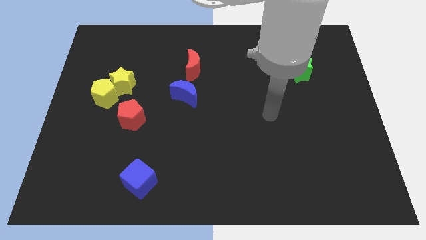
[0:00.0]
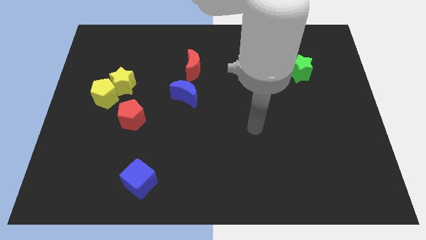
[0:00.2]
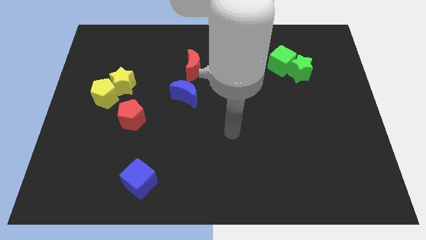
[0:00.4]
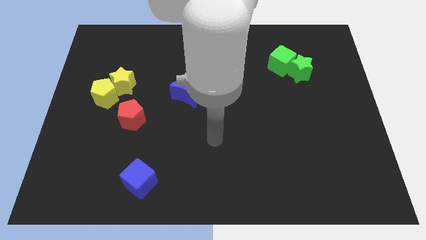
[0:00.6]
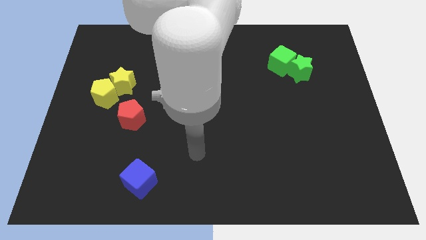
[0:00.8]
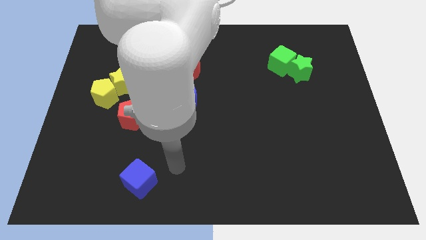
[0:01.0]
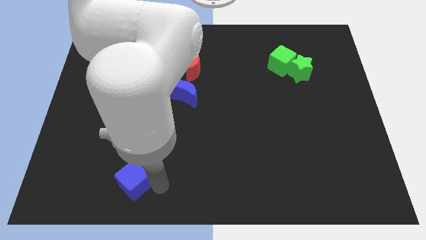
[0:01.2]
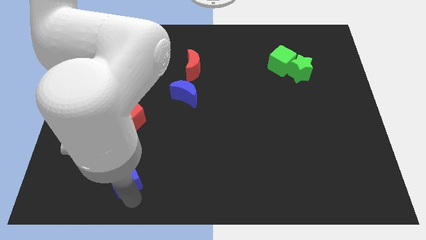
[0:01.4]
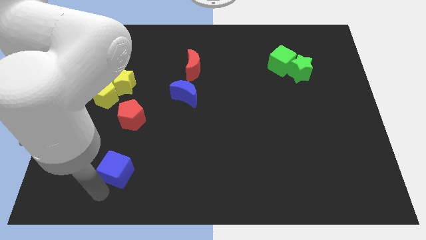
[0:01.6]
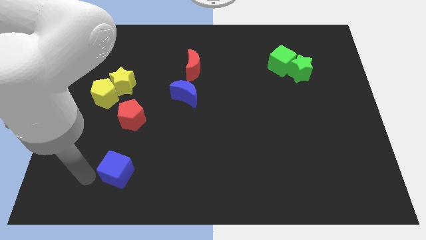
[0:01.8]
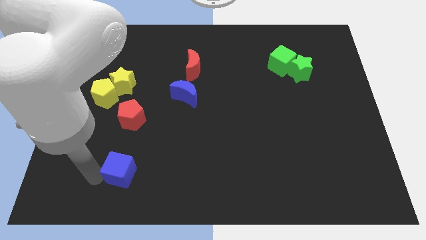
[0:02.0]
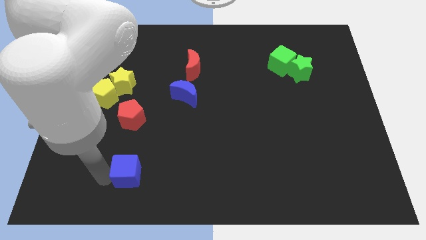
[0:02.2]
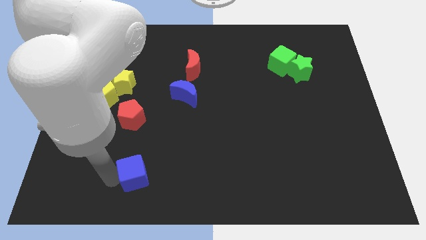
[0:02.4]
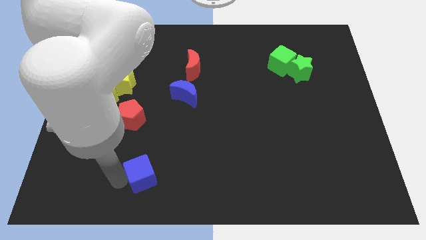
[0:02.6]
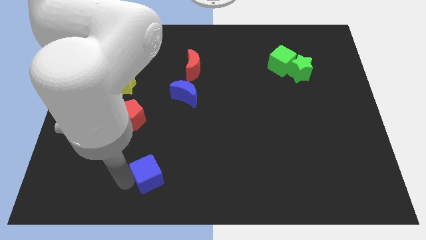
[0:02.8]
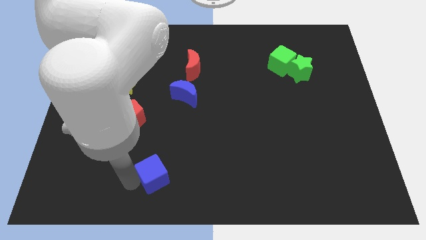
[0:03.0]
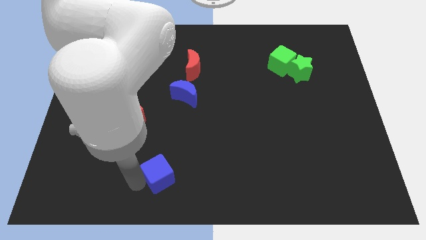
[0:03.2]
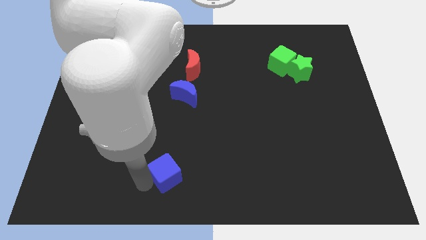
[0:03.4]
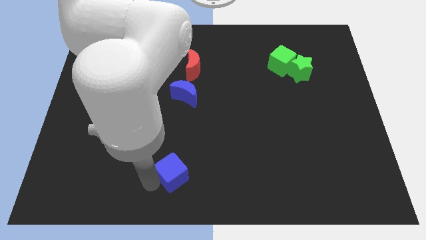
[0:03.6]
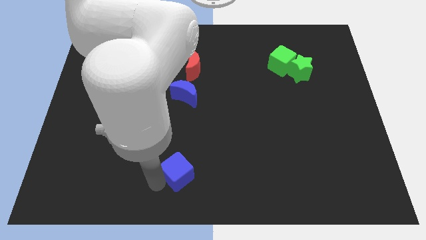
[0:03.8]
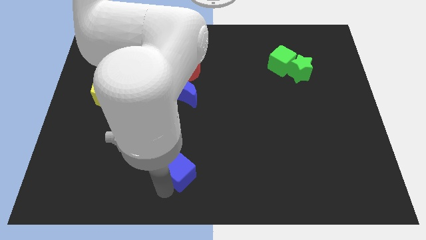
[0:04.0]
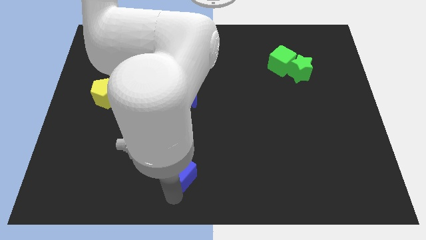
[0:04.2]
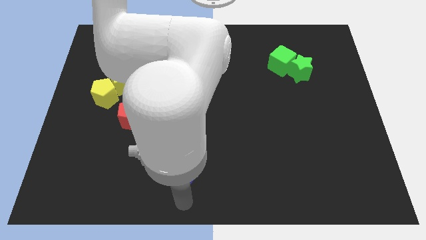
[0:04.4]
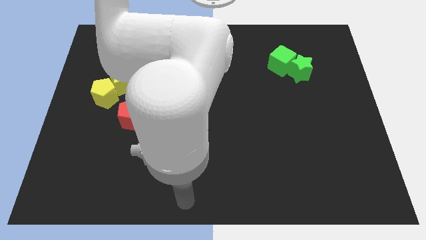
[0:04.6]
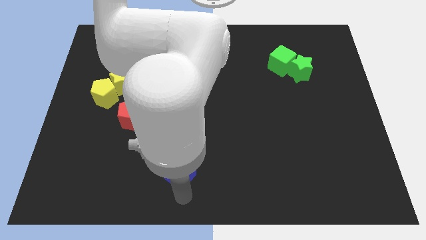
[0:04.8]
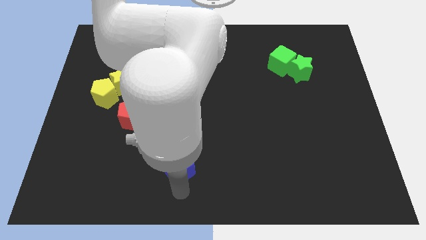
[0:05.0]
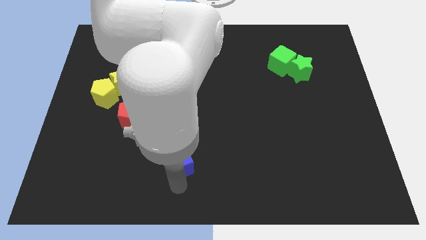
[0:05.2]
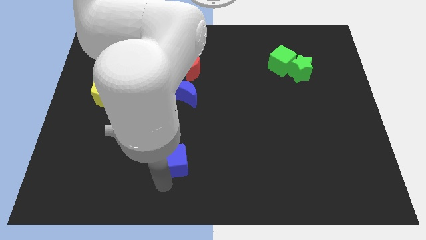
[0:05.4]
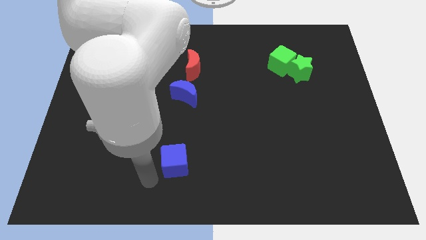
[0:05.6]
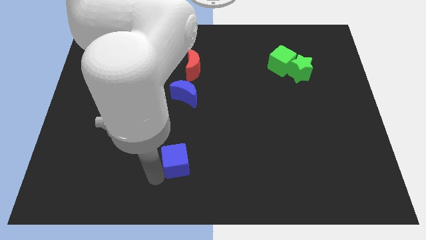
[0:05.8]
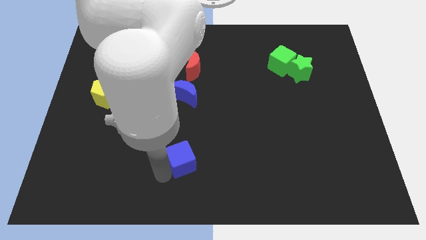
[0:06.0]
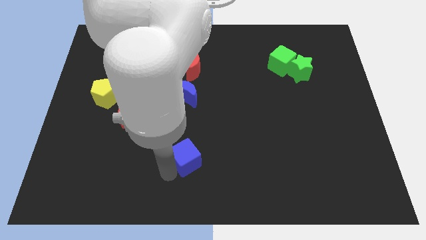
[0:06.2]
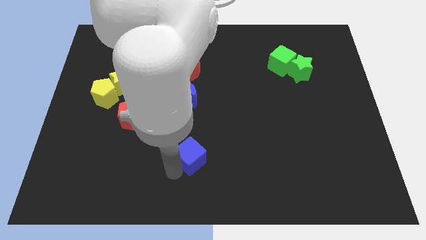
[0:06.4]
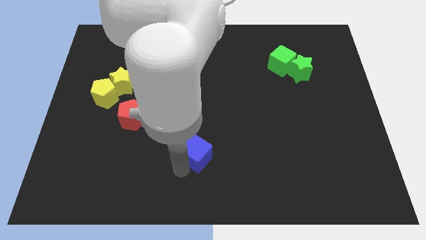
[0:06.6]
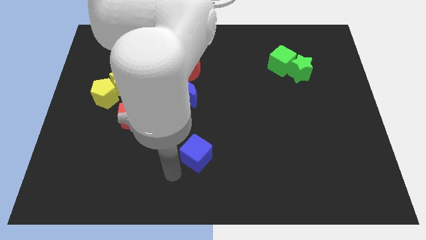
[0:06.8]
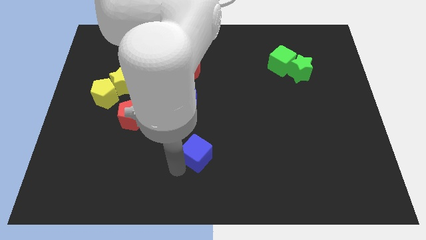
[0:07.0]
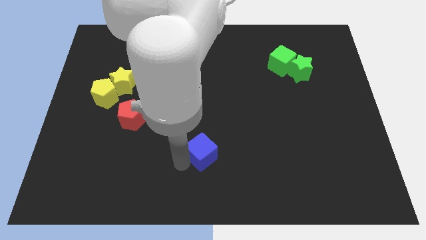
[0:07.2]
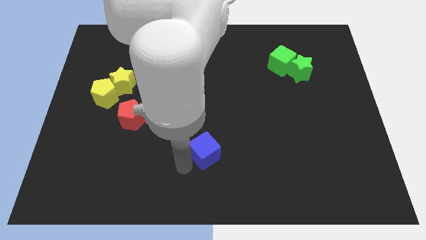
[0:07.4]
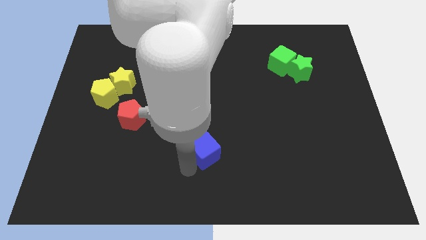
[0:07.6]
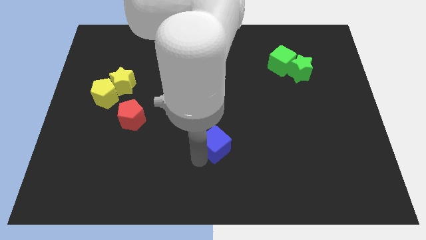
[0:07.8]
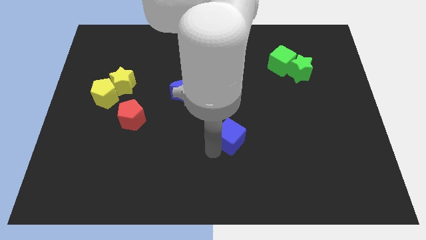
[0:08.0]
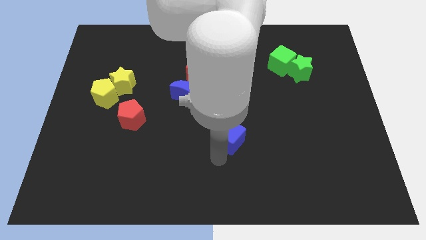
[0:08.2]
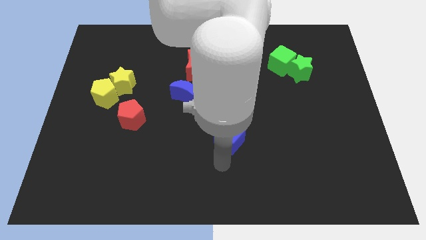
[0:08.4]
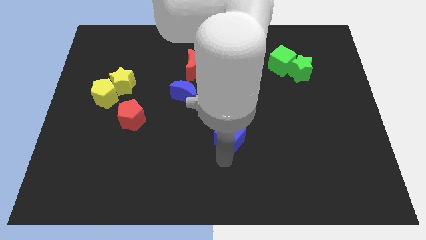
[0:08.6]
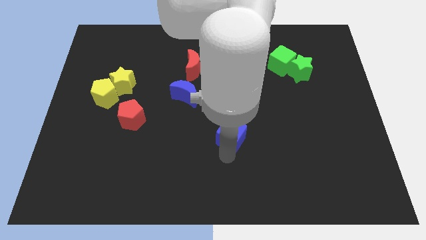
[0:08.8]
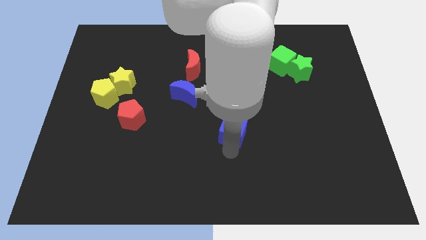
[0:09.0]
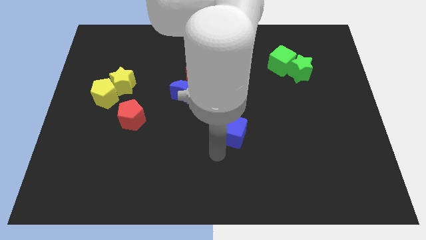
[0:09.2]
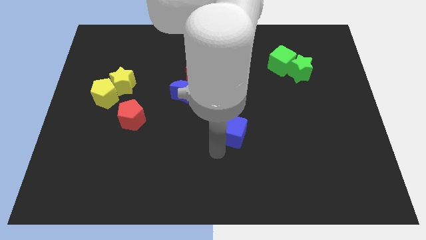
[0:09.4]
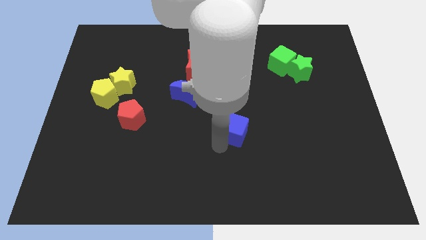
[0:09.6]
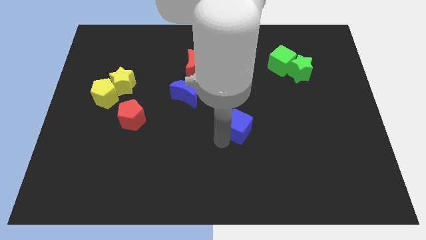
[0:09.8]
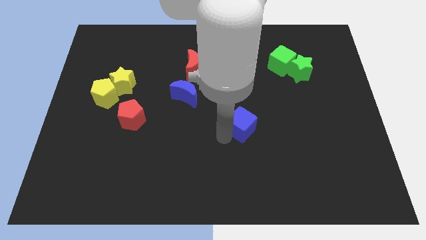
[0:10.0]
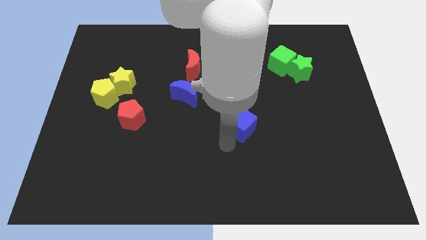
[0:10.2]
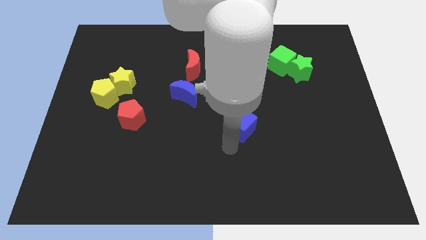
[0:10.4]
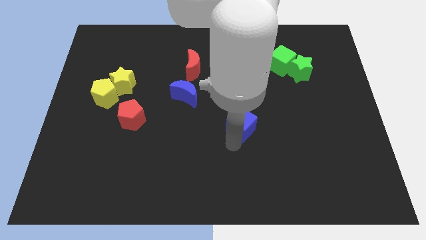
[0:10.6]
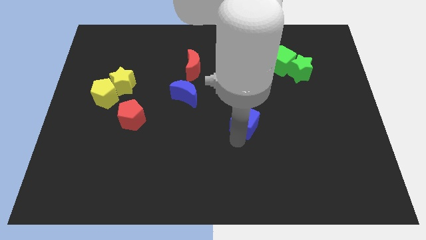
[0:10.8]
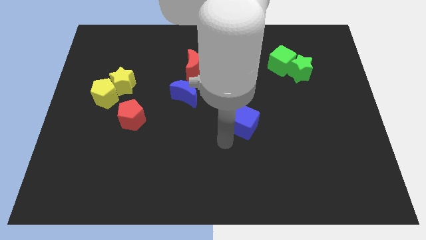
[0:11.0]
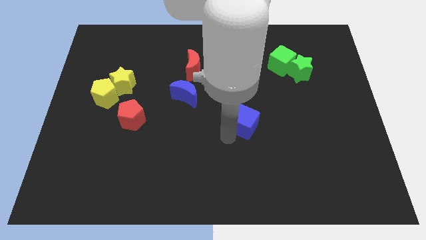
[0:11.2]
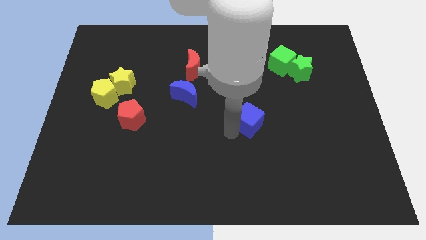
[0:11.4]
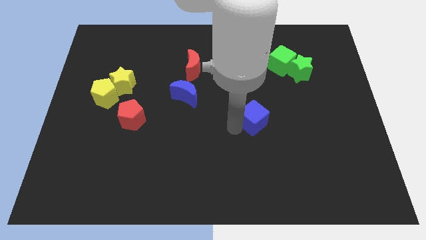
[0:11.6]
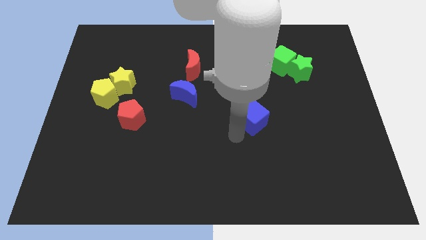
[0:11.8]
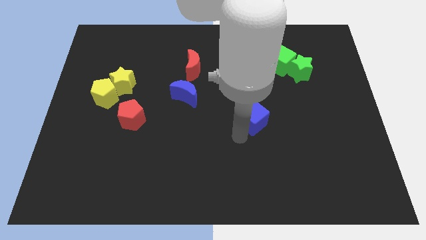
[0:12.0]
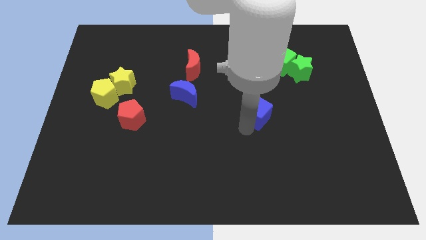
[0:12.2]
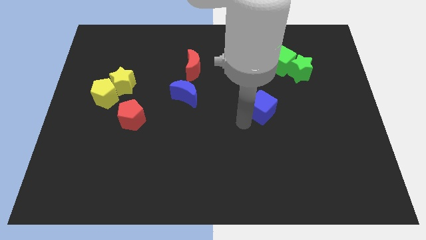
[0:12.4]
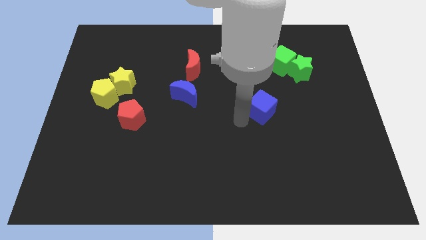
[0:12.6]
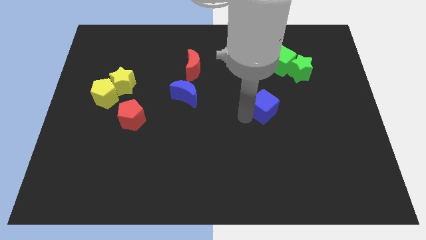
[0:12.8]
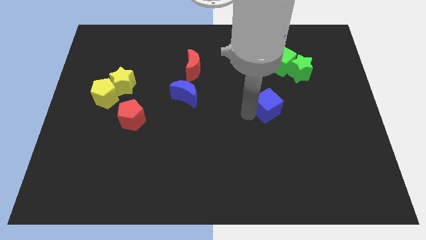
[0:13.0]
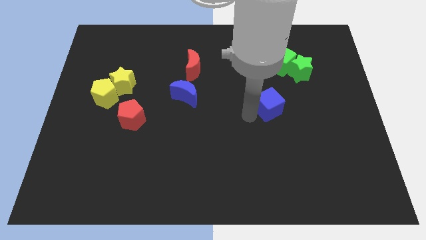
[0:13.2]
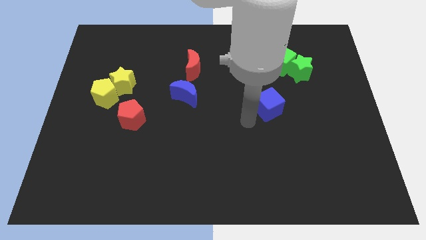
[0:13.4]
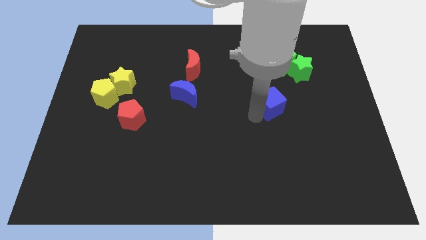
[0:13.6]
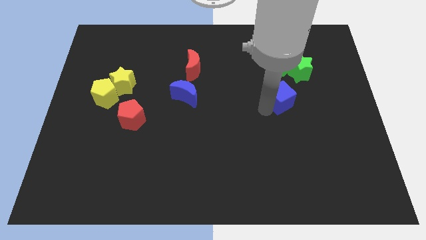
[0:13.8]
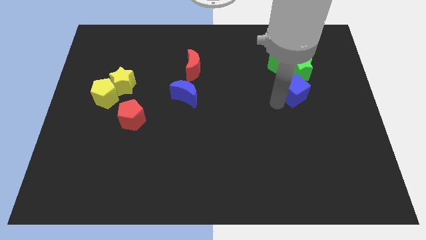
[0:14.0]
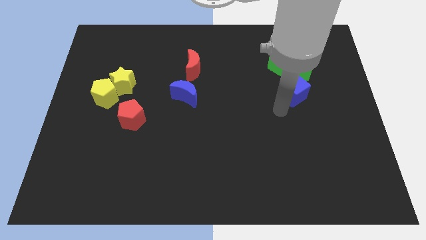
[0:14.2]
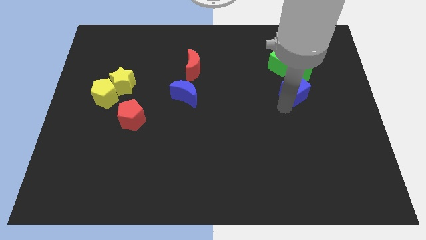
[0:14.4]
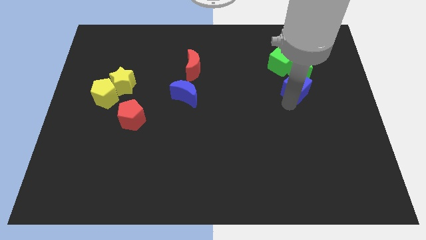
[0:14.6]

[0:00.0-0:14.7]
put the blue cube to the bottom right of the green cube
